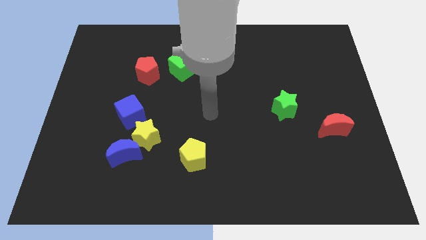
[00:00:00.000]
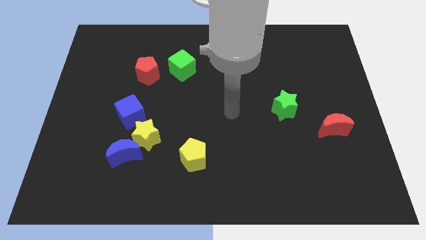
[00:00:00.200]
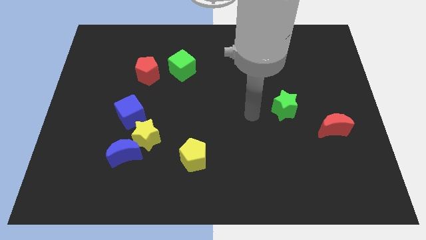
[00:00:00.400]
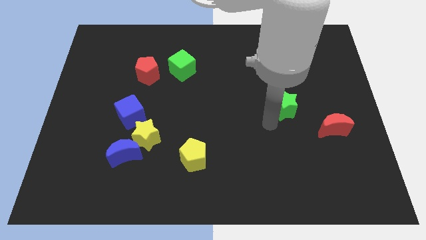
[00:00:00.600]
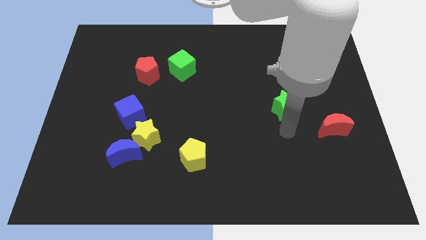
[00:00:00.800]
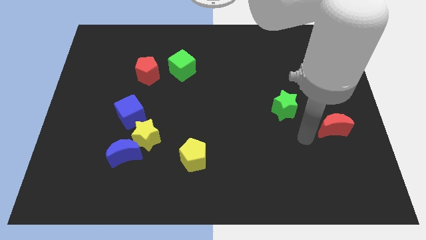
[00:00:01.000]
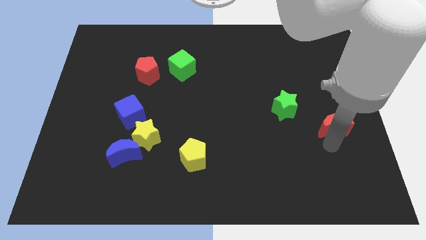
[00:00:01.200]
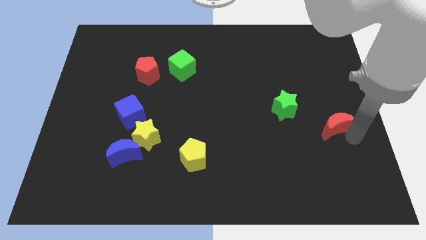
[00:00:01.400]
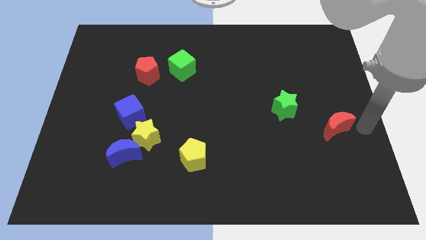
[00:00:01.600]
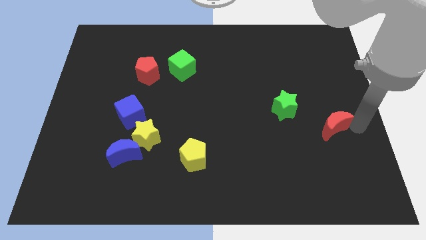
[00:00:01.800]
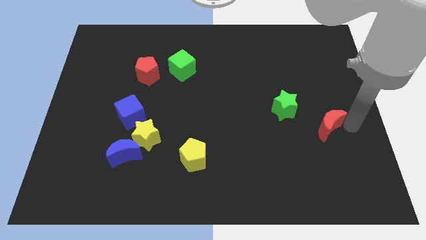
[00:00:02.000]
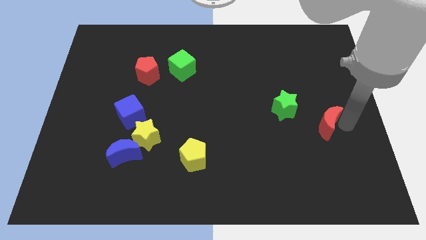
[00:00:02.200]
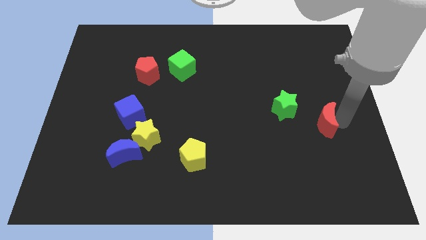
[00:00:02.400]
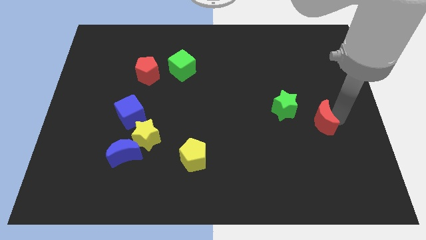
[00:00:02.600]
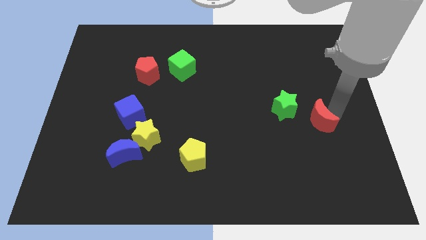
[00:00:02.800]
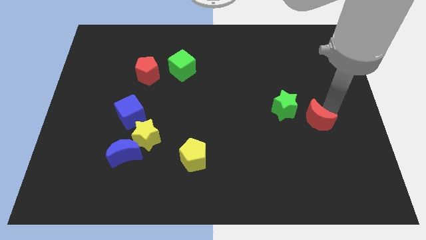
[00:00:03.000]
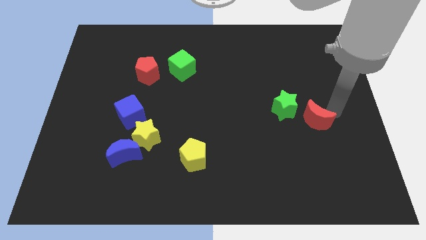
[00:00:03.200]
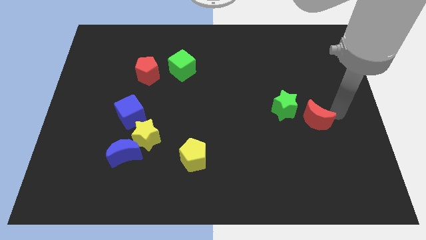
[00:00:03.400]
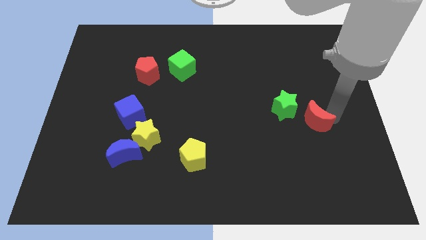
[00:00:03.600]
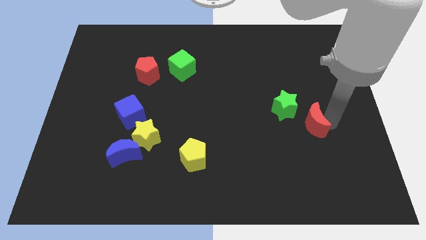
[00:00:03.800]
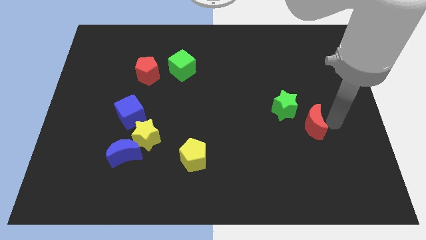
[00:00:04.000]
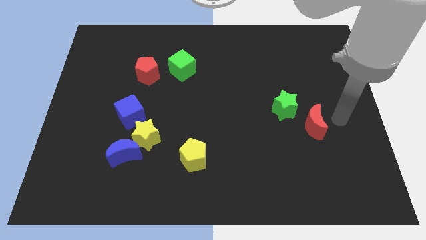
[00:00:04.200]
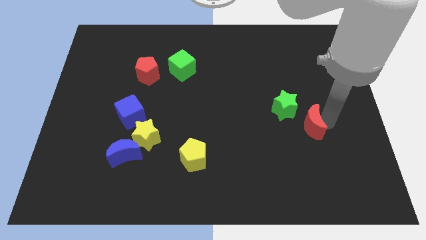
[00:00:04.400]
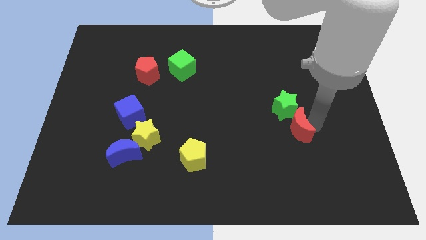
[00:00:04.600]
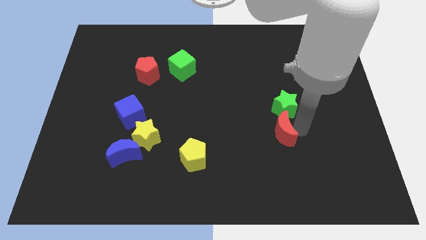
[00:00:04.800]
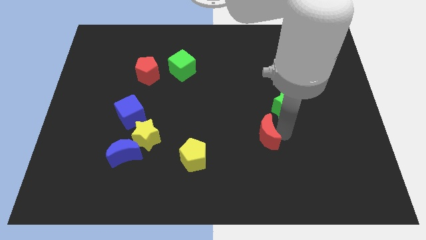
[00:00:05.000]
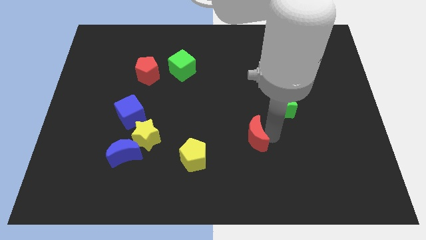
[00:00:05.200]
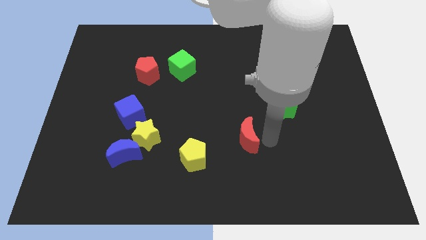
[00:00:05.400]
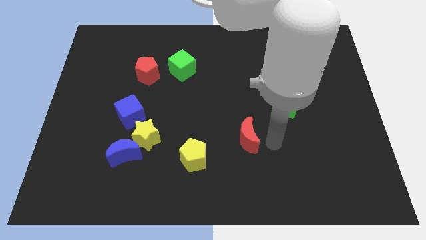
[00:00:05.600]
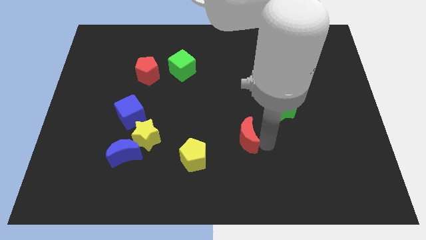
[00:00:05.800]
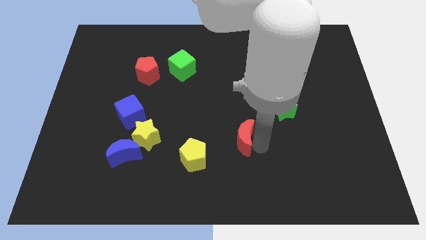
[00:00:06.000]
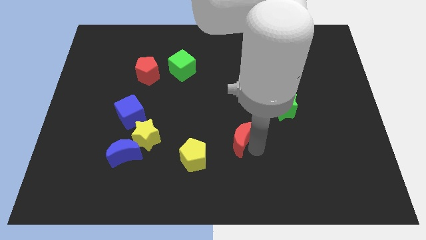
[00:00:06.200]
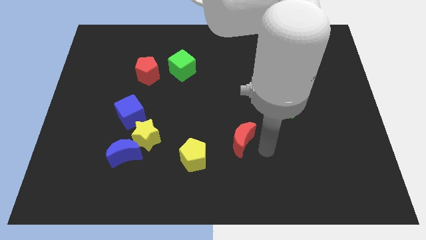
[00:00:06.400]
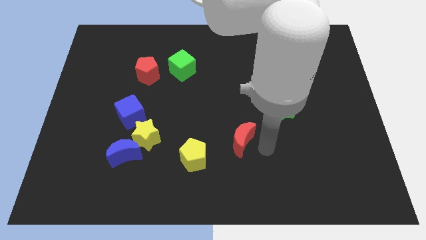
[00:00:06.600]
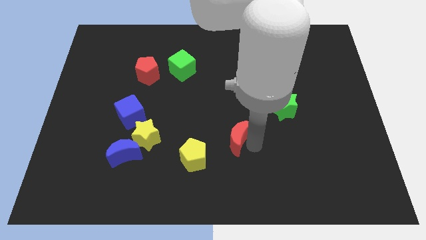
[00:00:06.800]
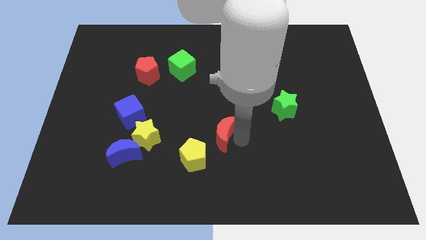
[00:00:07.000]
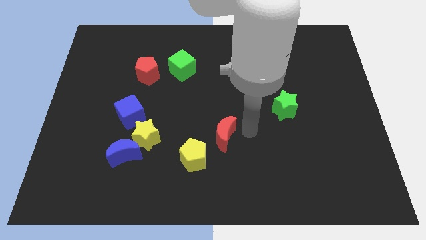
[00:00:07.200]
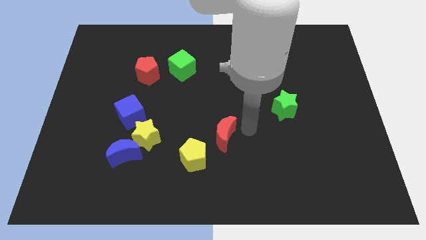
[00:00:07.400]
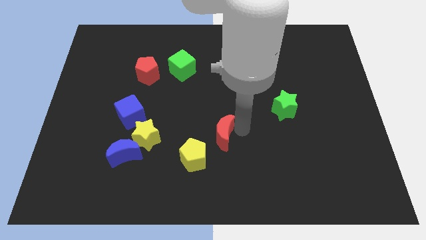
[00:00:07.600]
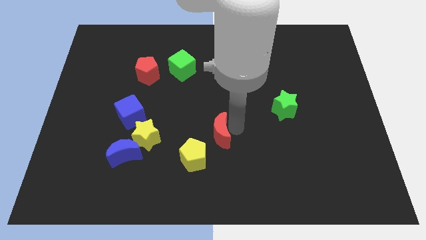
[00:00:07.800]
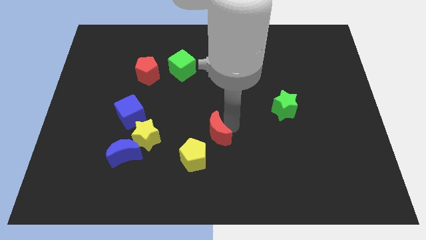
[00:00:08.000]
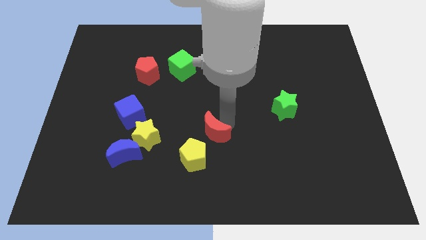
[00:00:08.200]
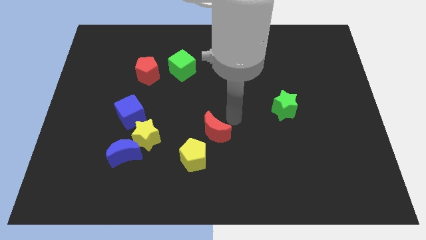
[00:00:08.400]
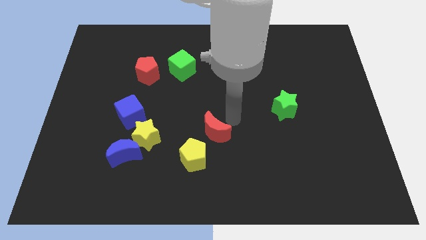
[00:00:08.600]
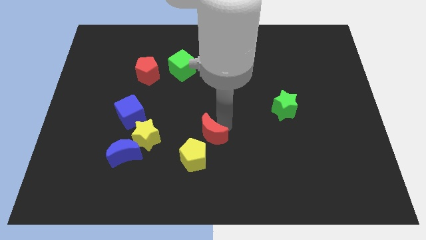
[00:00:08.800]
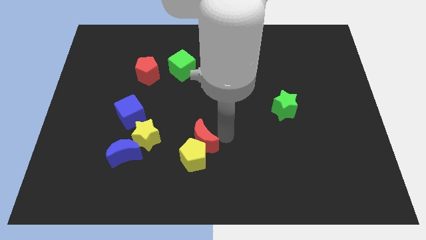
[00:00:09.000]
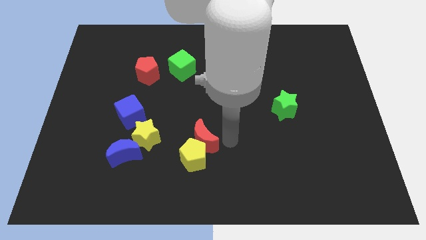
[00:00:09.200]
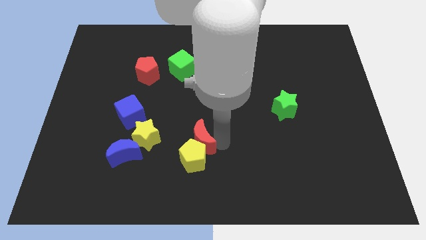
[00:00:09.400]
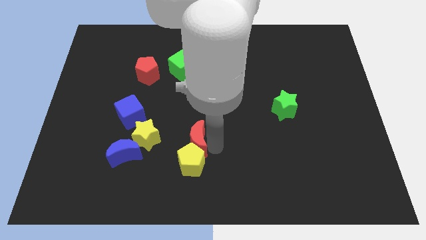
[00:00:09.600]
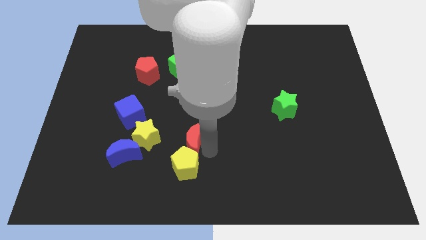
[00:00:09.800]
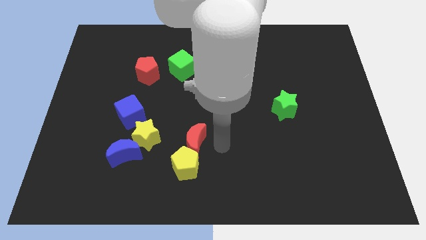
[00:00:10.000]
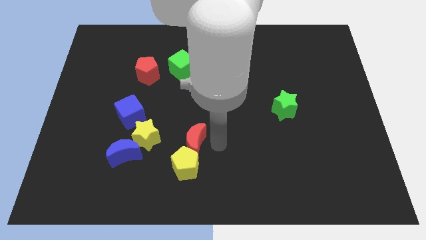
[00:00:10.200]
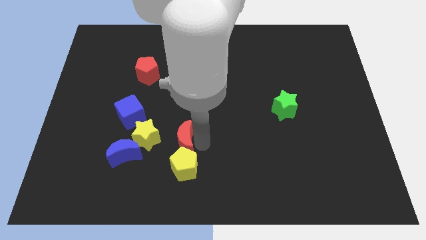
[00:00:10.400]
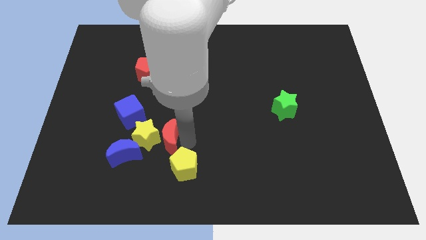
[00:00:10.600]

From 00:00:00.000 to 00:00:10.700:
put the red moon close to the yellow star

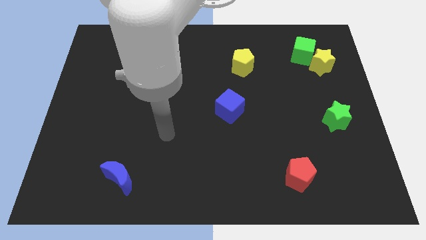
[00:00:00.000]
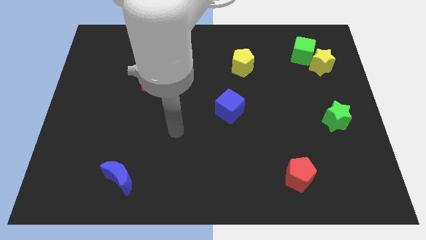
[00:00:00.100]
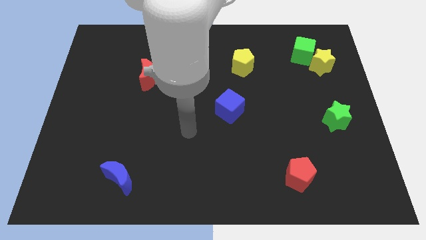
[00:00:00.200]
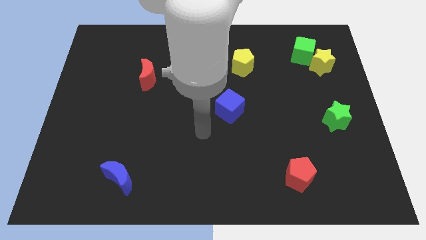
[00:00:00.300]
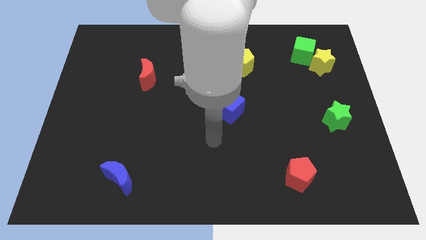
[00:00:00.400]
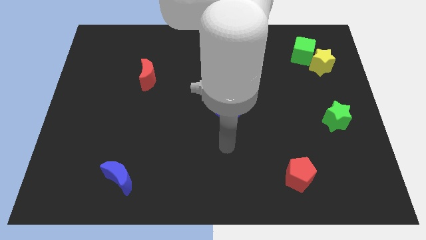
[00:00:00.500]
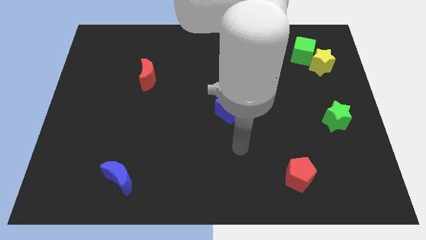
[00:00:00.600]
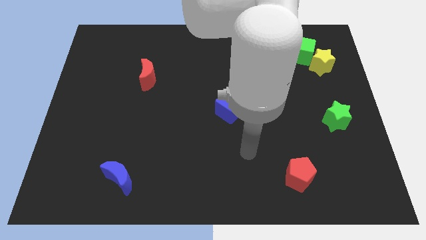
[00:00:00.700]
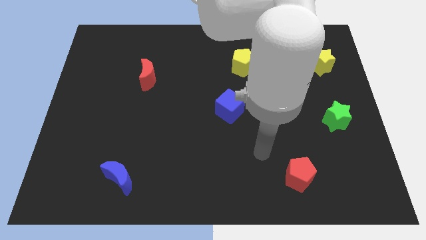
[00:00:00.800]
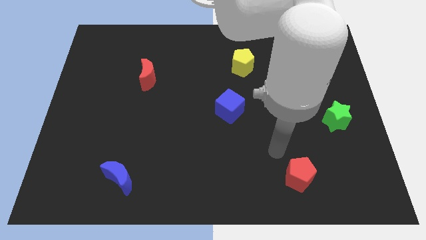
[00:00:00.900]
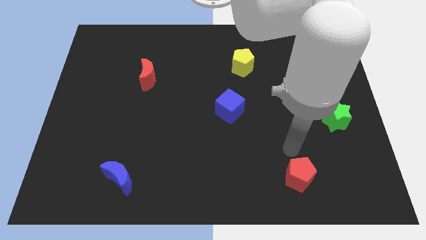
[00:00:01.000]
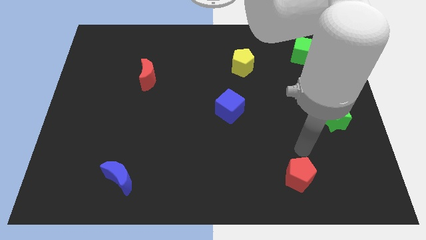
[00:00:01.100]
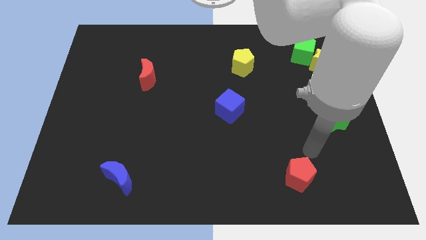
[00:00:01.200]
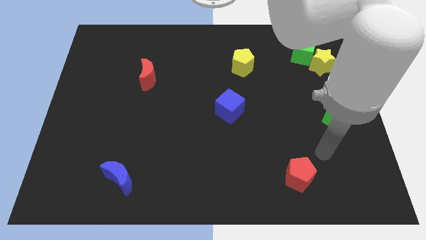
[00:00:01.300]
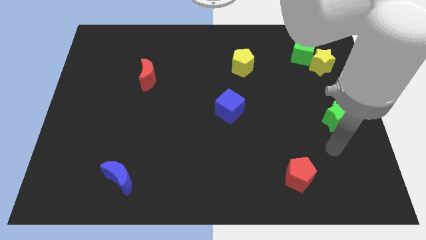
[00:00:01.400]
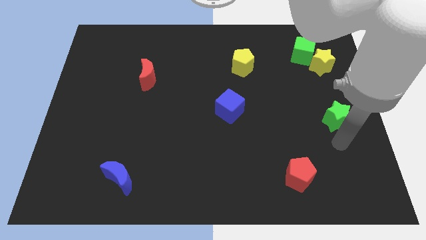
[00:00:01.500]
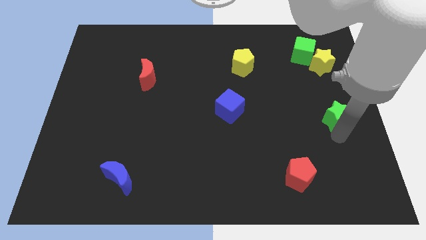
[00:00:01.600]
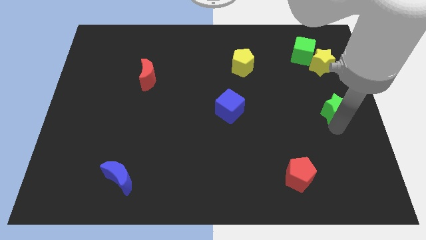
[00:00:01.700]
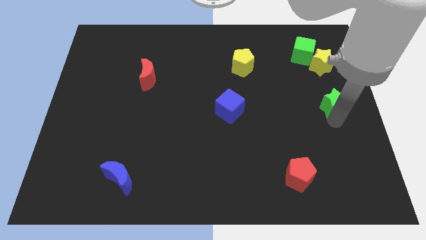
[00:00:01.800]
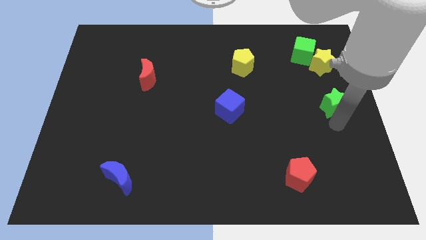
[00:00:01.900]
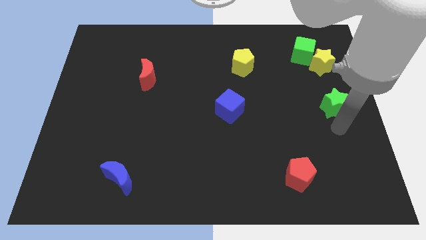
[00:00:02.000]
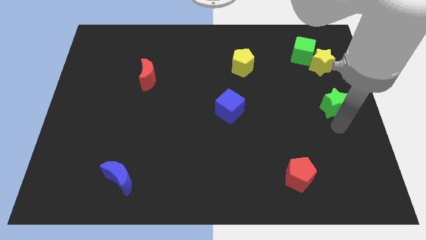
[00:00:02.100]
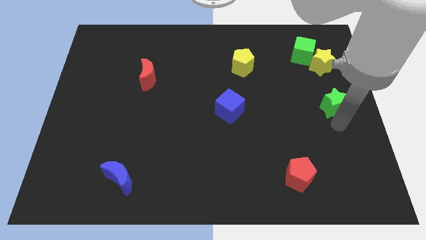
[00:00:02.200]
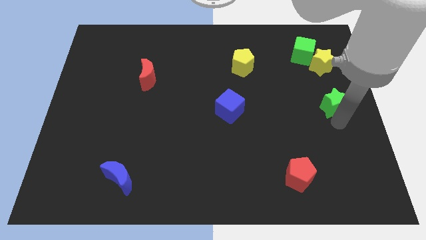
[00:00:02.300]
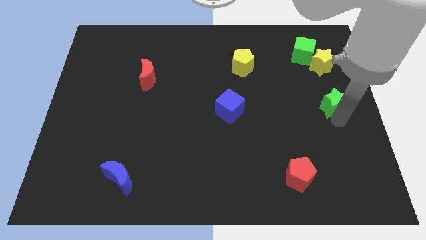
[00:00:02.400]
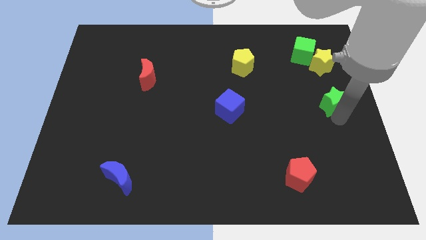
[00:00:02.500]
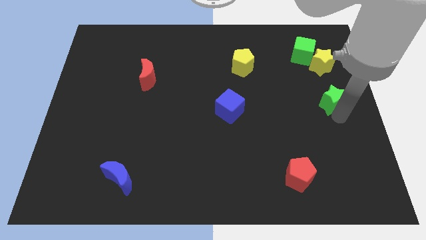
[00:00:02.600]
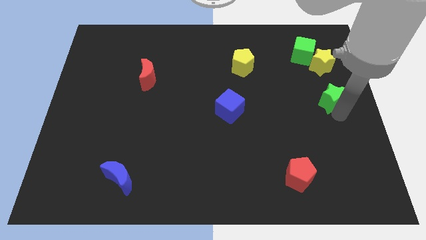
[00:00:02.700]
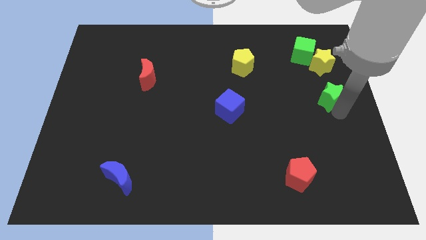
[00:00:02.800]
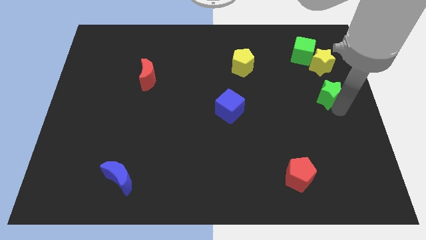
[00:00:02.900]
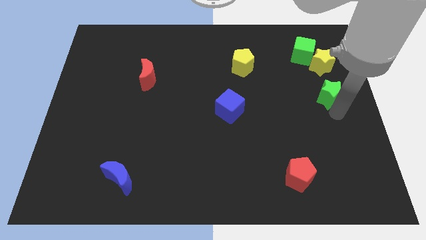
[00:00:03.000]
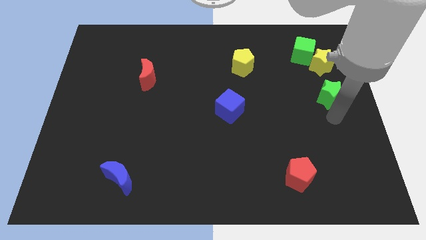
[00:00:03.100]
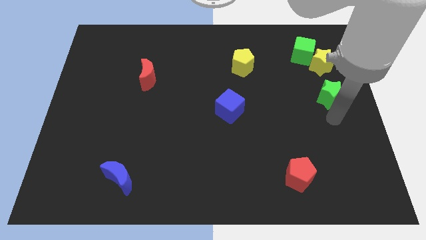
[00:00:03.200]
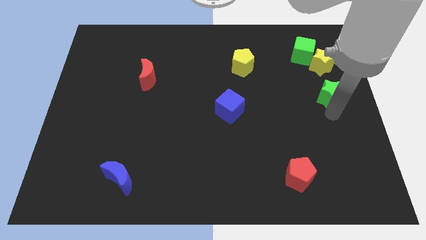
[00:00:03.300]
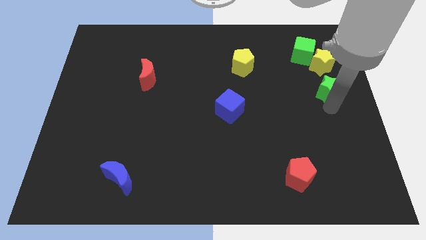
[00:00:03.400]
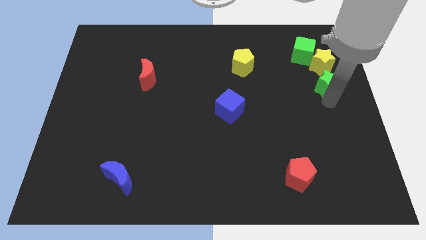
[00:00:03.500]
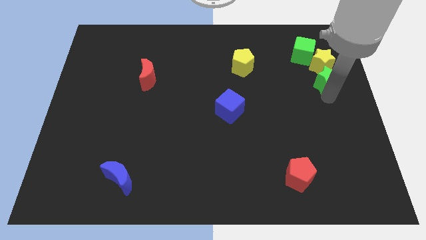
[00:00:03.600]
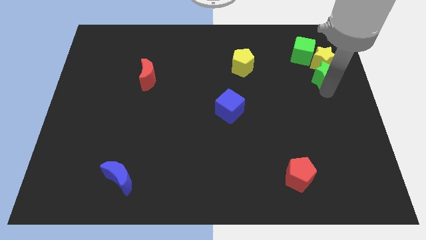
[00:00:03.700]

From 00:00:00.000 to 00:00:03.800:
put the green star to the yellow star
